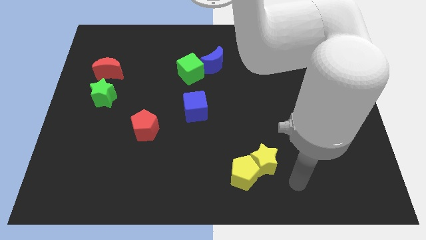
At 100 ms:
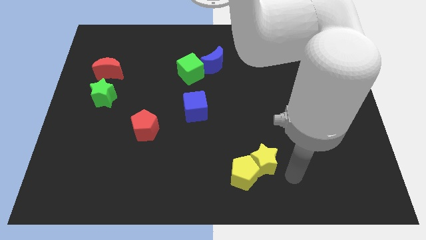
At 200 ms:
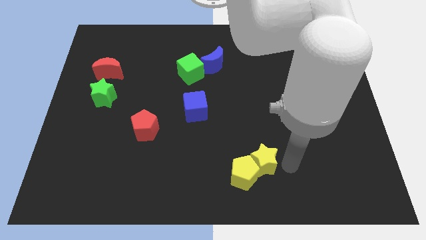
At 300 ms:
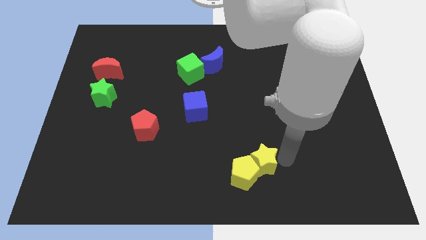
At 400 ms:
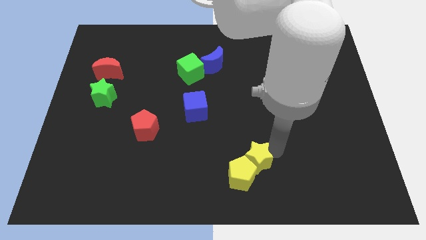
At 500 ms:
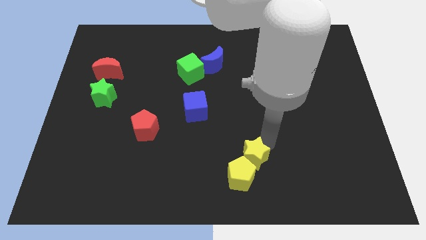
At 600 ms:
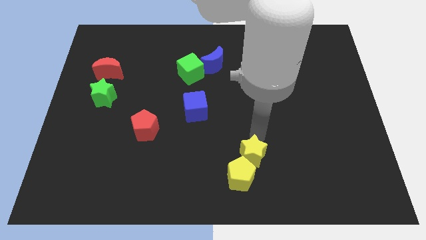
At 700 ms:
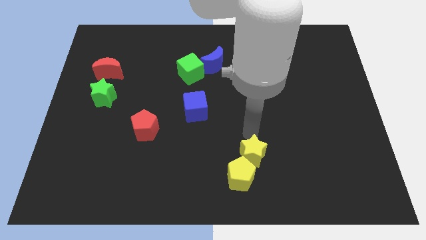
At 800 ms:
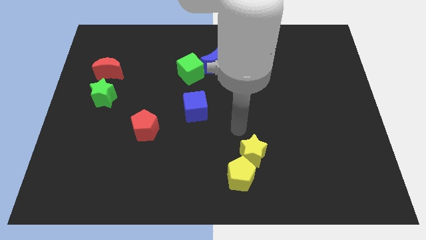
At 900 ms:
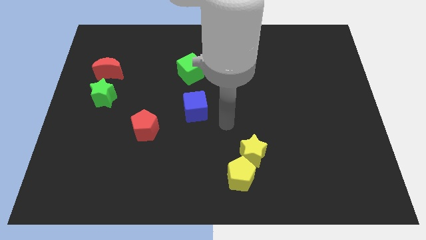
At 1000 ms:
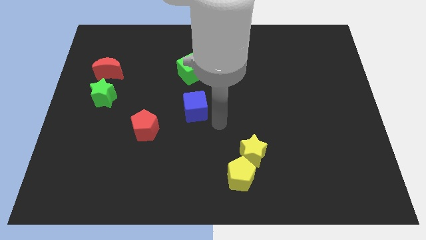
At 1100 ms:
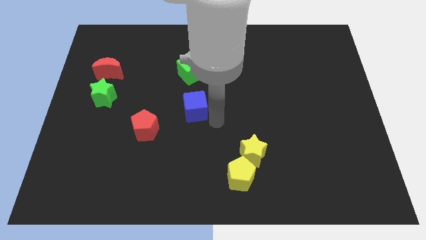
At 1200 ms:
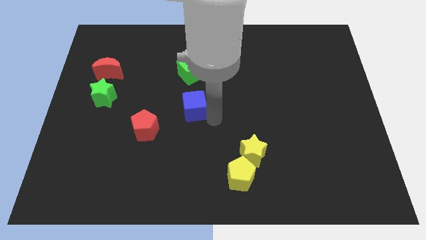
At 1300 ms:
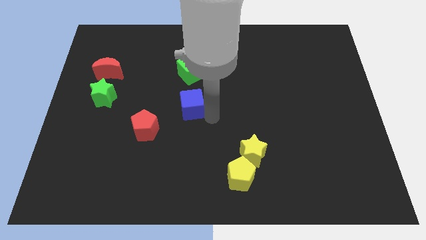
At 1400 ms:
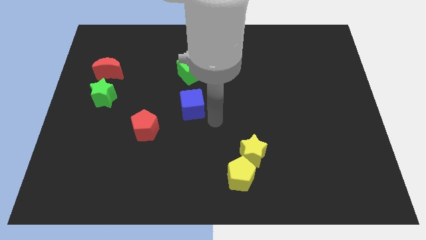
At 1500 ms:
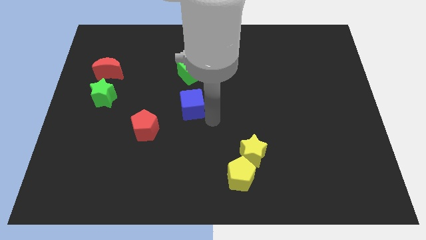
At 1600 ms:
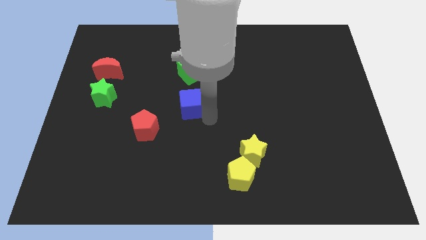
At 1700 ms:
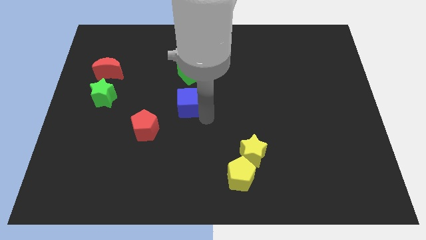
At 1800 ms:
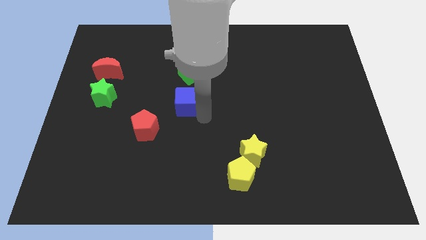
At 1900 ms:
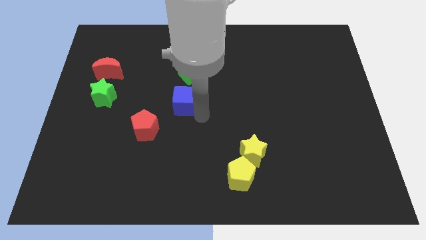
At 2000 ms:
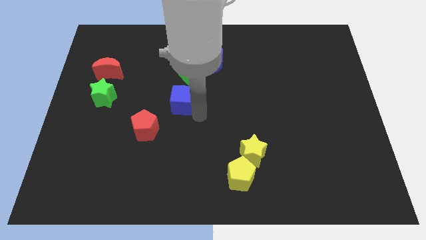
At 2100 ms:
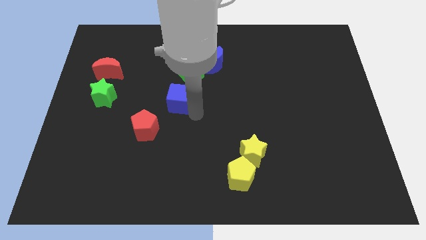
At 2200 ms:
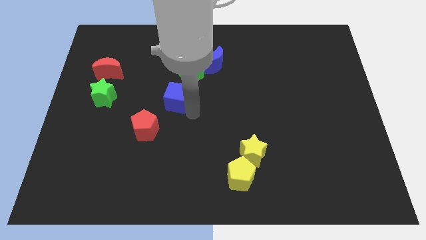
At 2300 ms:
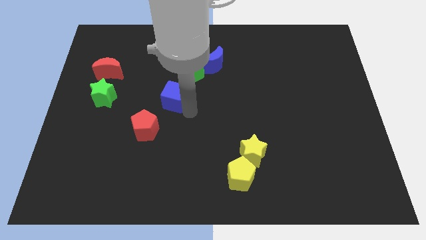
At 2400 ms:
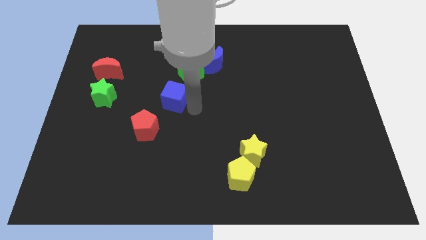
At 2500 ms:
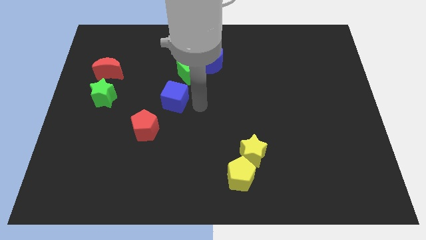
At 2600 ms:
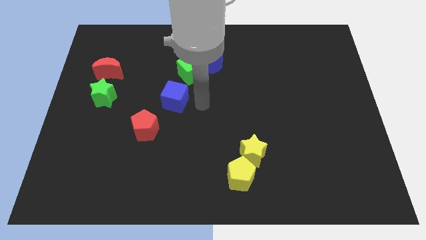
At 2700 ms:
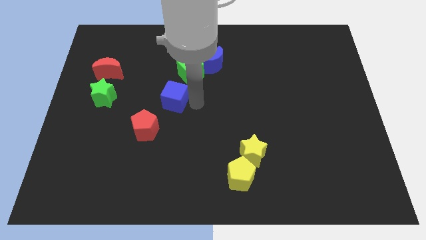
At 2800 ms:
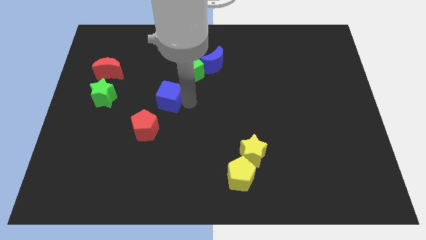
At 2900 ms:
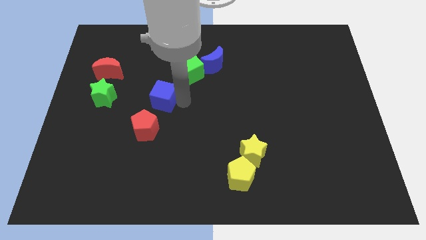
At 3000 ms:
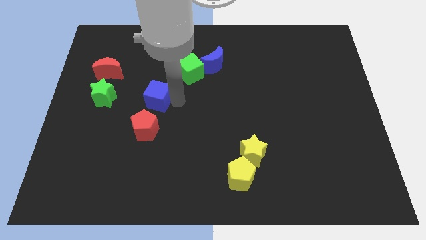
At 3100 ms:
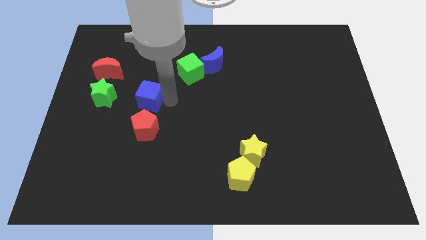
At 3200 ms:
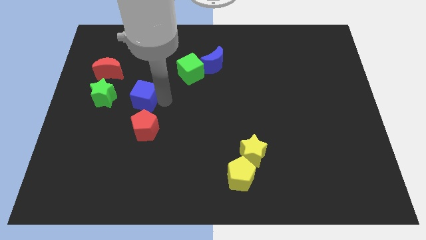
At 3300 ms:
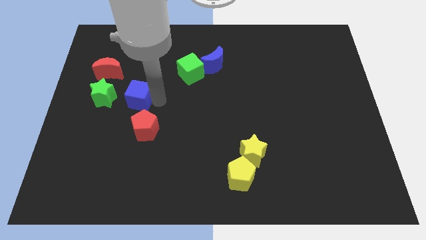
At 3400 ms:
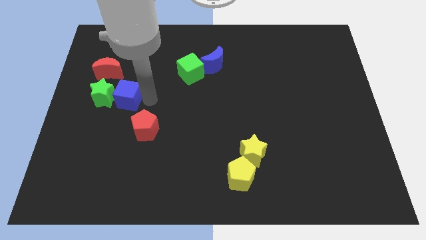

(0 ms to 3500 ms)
put the blue cube to the green star

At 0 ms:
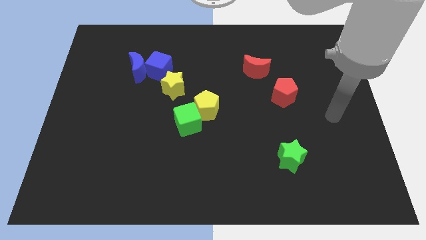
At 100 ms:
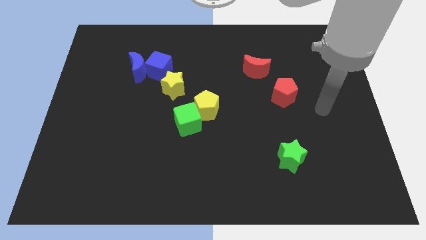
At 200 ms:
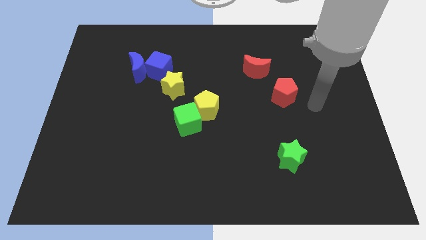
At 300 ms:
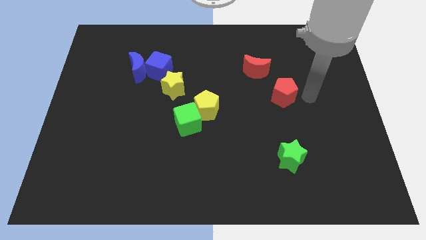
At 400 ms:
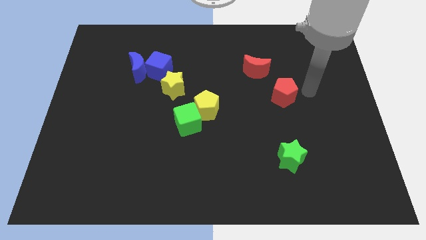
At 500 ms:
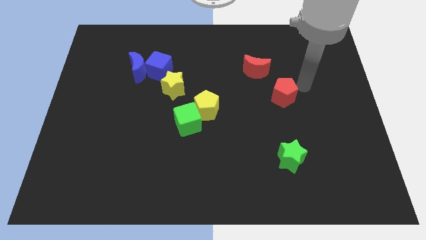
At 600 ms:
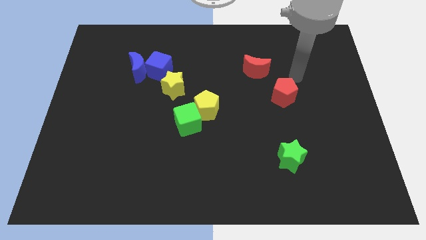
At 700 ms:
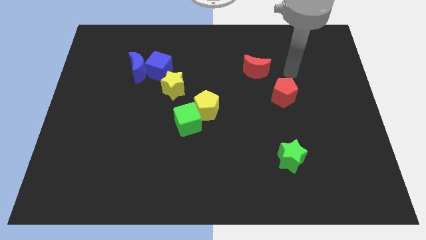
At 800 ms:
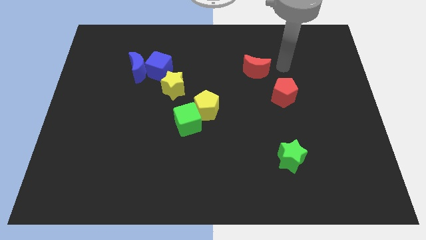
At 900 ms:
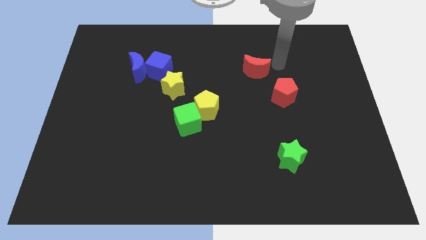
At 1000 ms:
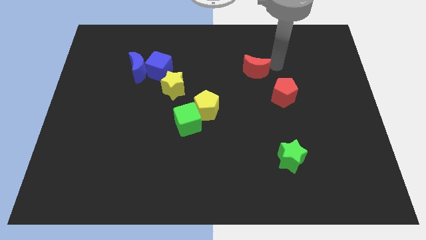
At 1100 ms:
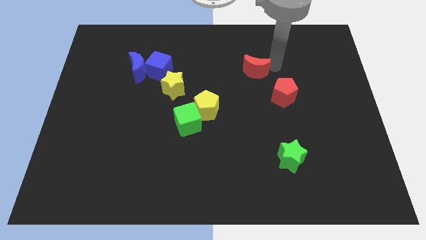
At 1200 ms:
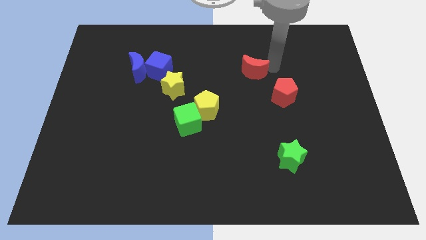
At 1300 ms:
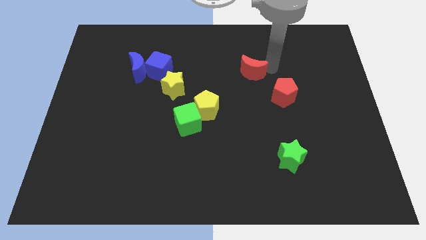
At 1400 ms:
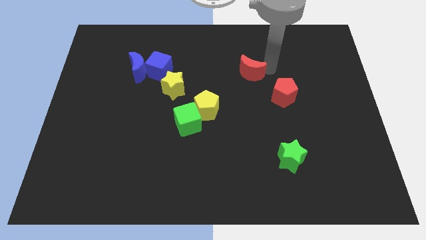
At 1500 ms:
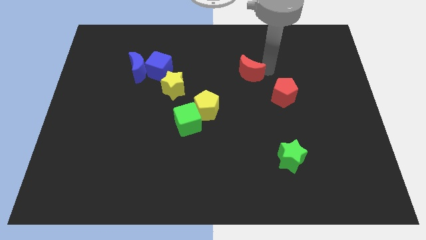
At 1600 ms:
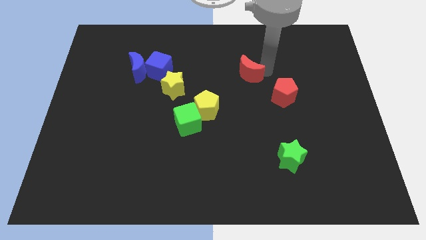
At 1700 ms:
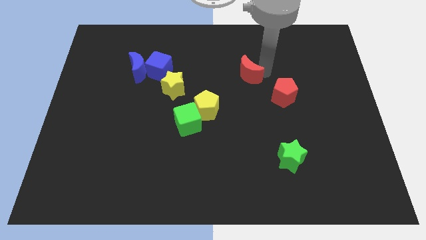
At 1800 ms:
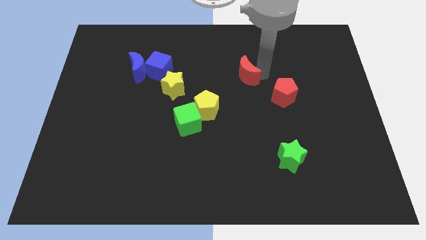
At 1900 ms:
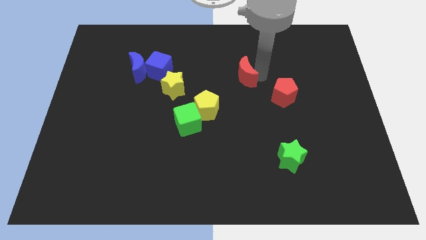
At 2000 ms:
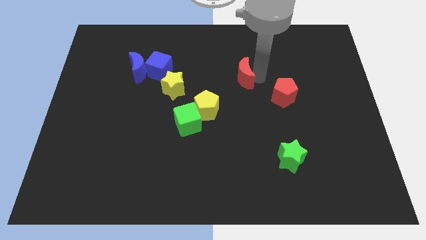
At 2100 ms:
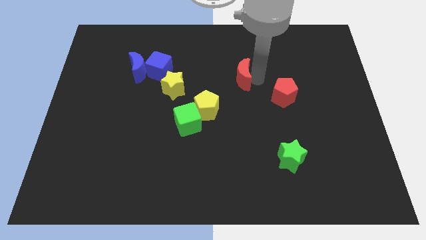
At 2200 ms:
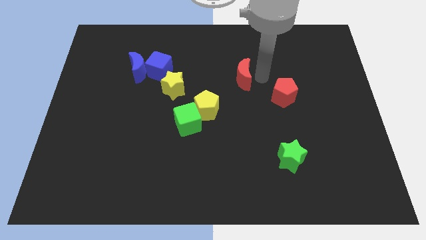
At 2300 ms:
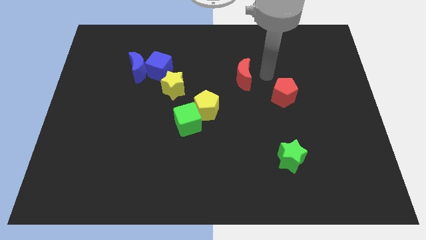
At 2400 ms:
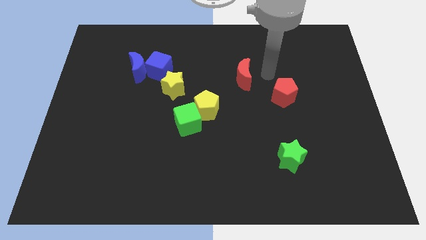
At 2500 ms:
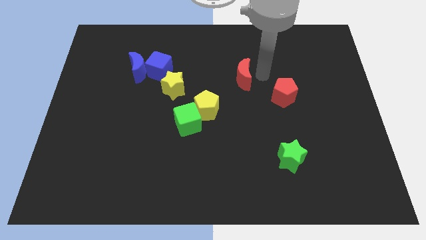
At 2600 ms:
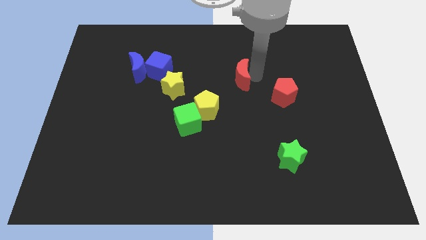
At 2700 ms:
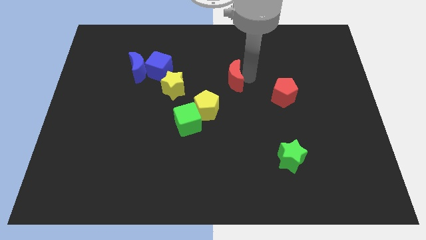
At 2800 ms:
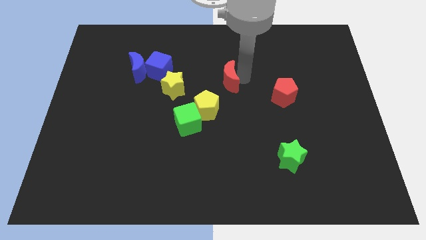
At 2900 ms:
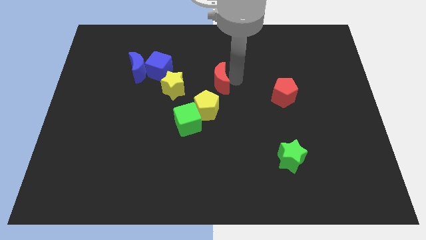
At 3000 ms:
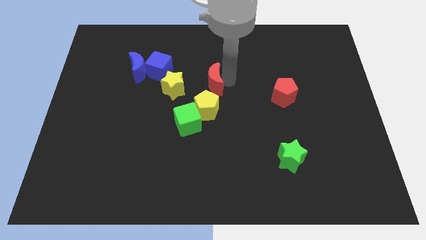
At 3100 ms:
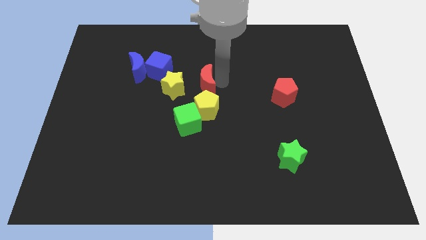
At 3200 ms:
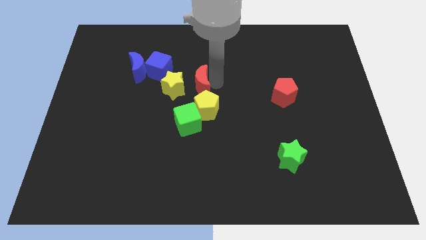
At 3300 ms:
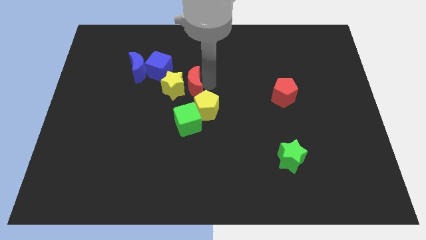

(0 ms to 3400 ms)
push the red moon towards the yellow star

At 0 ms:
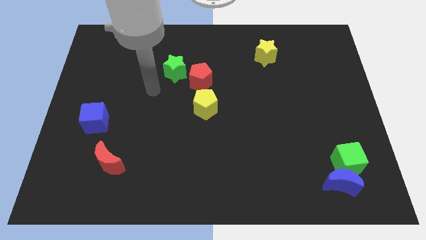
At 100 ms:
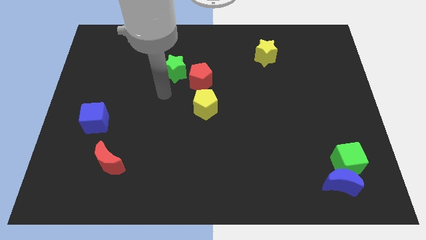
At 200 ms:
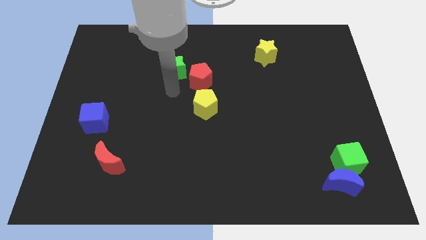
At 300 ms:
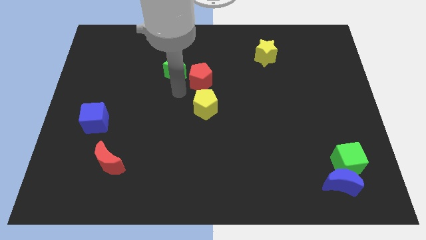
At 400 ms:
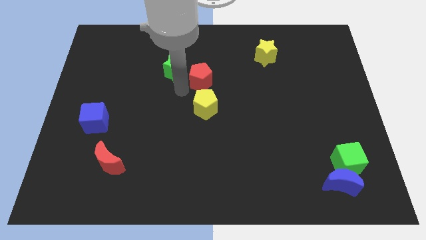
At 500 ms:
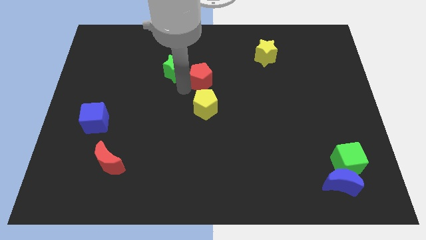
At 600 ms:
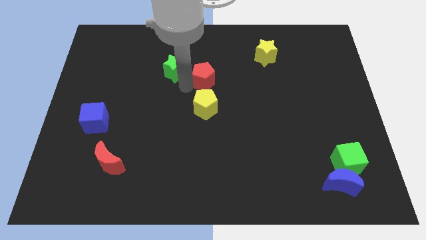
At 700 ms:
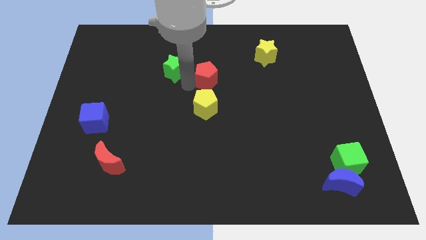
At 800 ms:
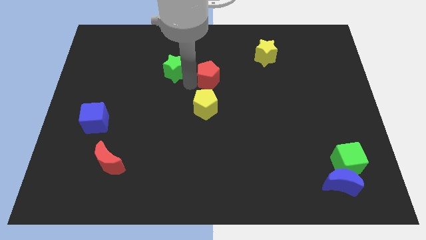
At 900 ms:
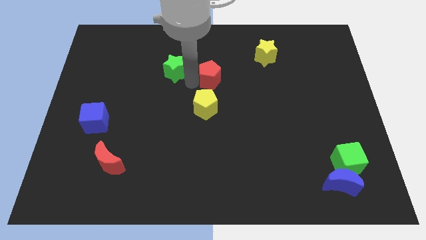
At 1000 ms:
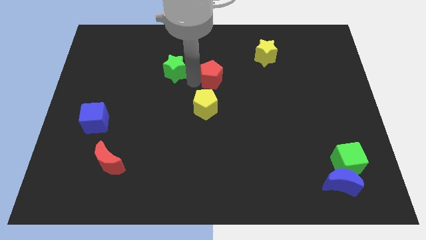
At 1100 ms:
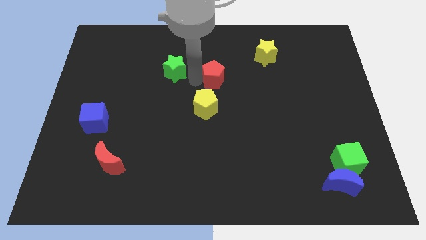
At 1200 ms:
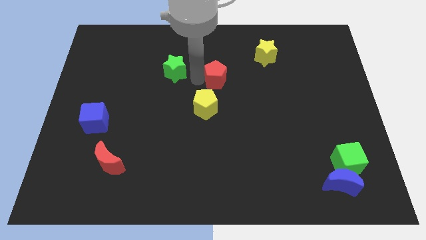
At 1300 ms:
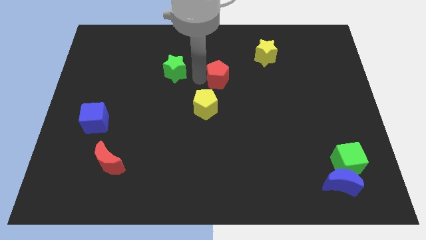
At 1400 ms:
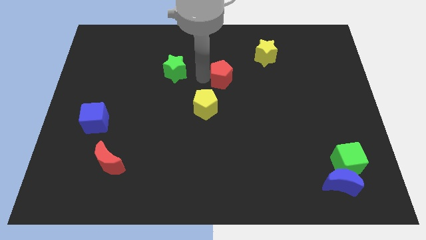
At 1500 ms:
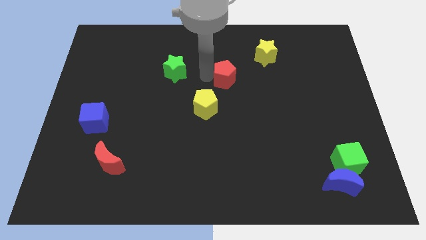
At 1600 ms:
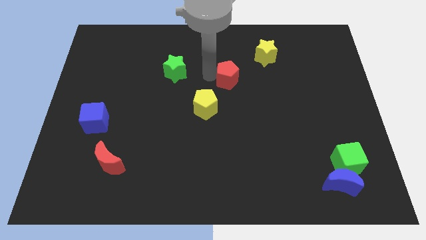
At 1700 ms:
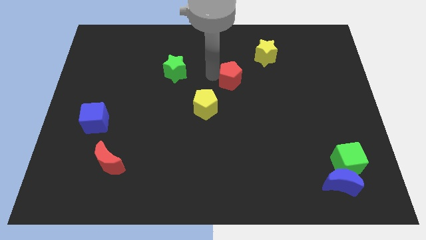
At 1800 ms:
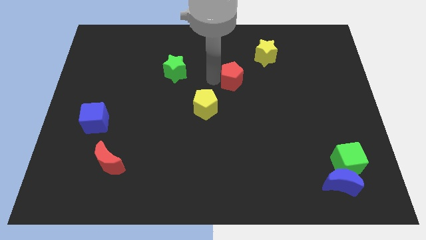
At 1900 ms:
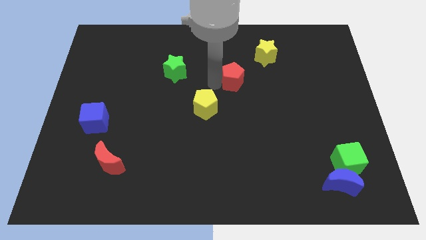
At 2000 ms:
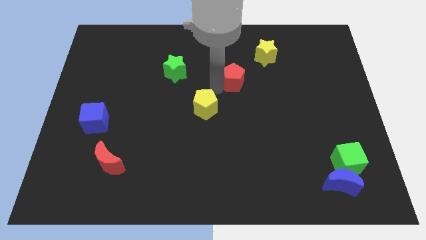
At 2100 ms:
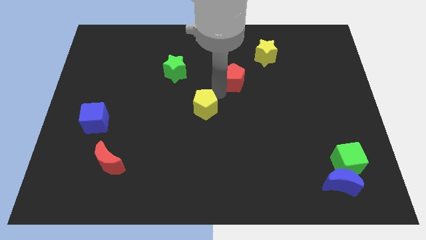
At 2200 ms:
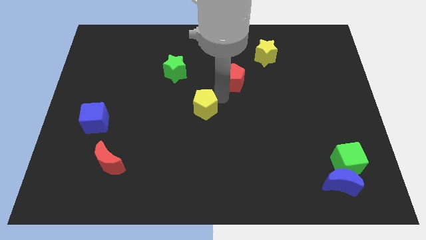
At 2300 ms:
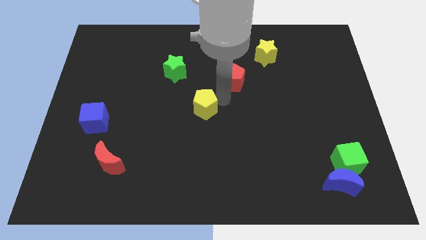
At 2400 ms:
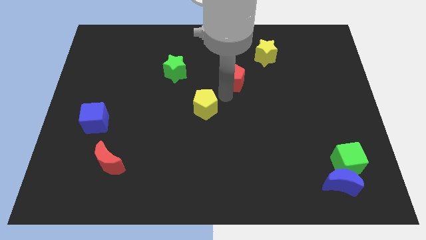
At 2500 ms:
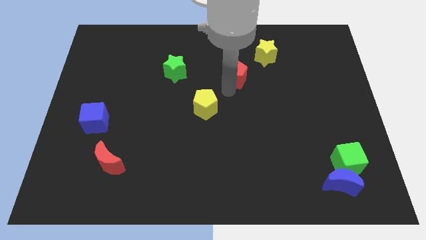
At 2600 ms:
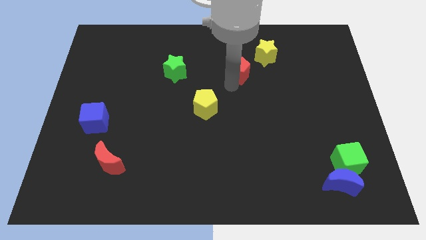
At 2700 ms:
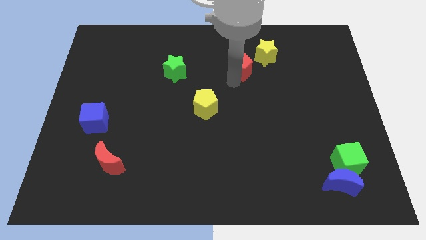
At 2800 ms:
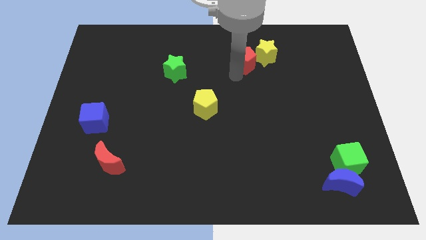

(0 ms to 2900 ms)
put the red pentagon next to the yellow star
